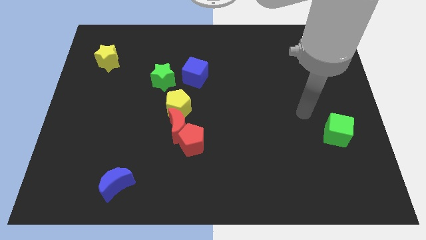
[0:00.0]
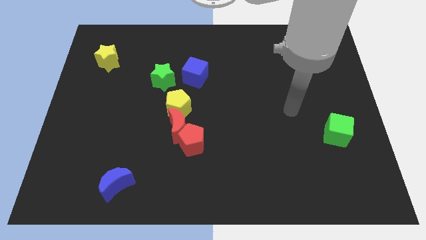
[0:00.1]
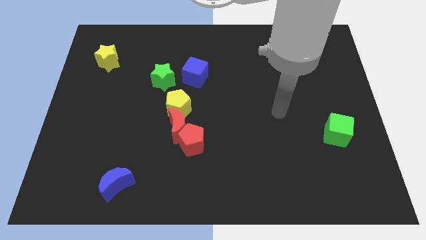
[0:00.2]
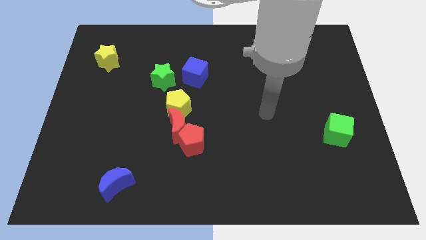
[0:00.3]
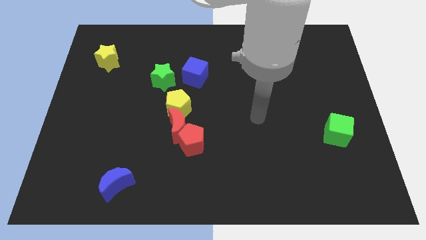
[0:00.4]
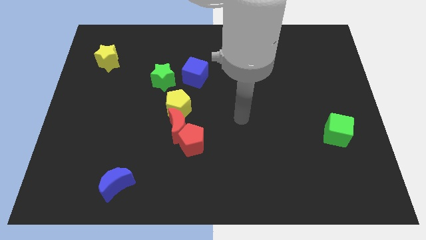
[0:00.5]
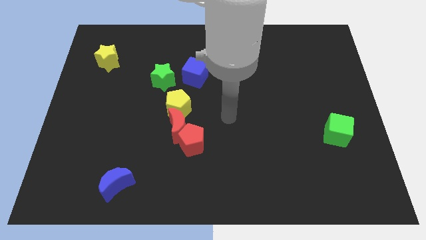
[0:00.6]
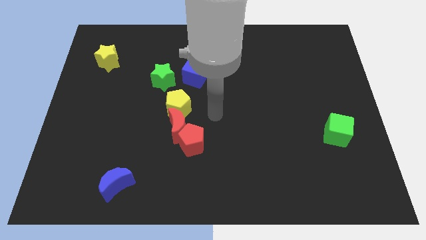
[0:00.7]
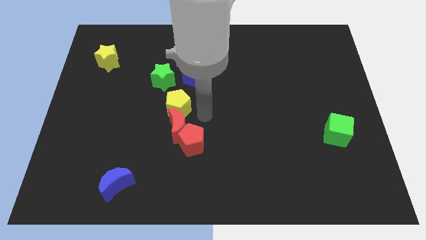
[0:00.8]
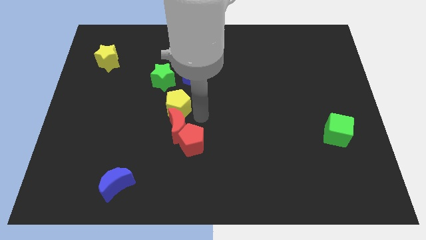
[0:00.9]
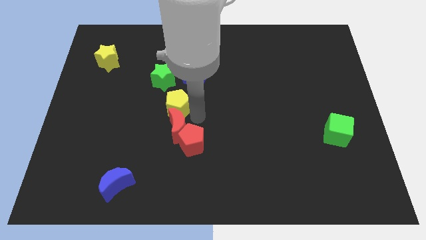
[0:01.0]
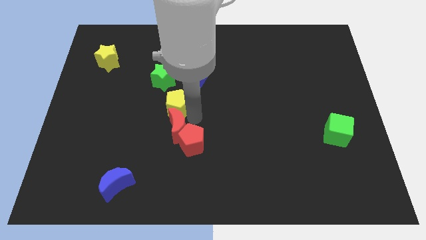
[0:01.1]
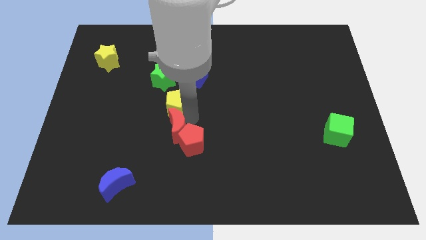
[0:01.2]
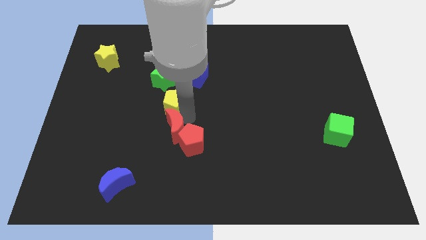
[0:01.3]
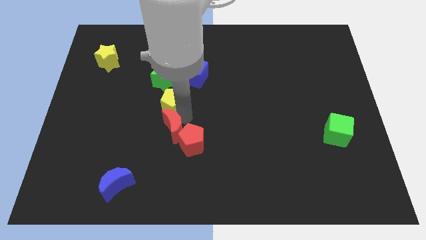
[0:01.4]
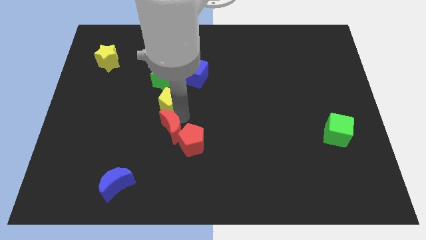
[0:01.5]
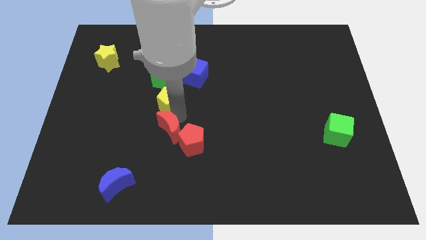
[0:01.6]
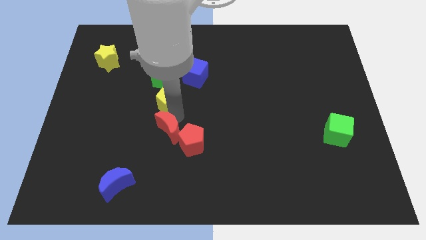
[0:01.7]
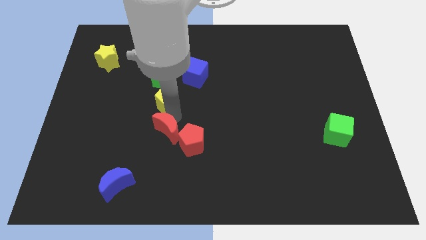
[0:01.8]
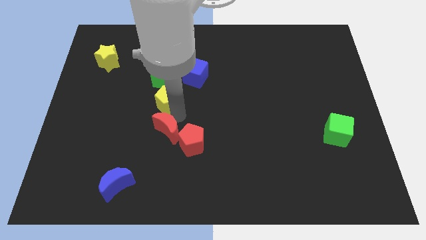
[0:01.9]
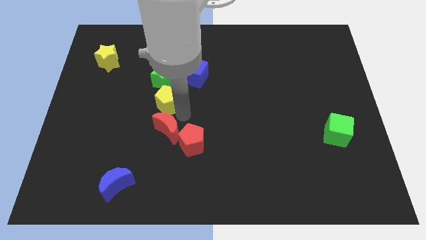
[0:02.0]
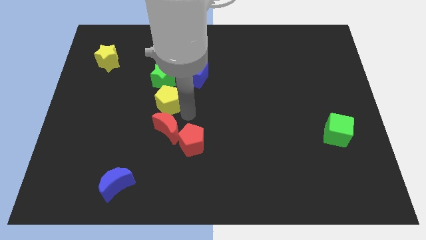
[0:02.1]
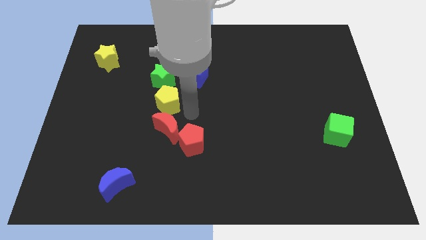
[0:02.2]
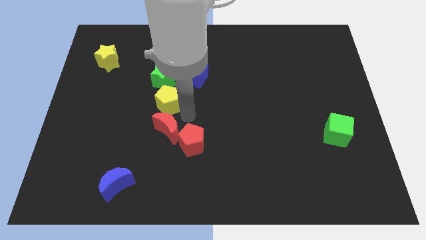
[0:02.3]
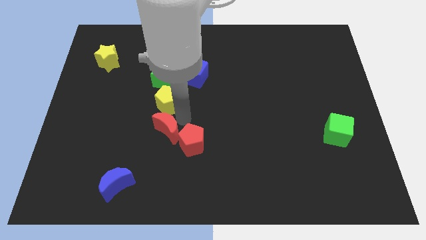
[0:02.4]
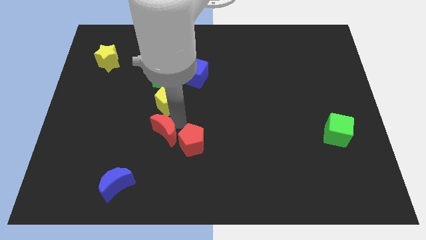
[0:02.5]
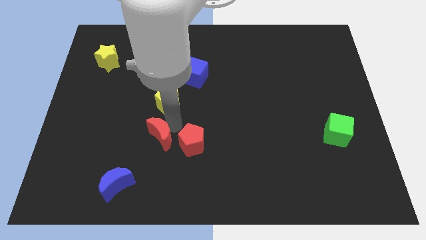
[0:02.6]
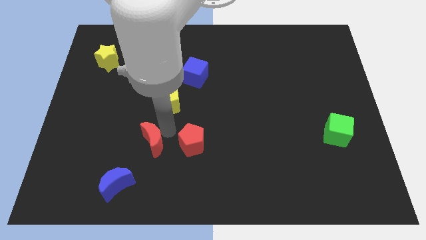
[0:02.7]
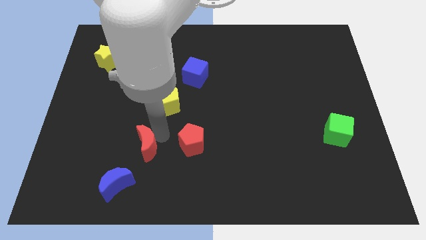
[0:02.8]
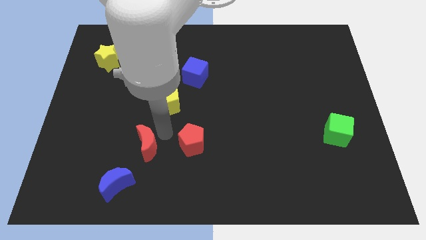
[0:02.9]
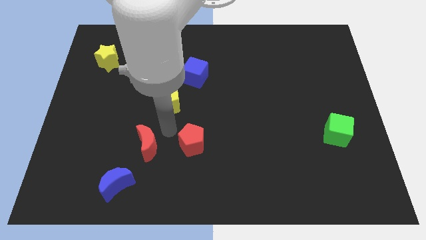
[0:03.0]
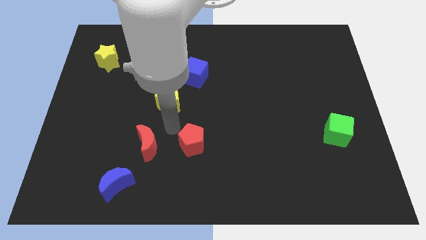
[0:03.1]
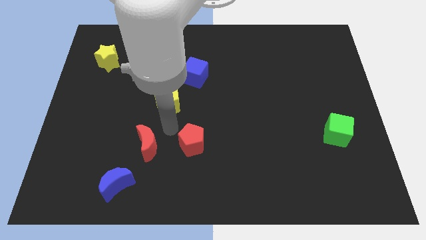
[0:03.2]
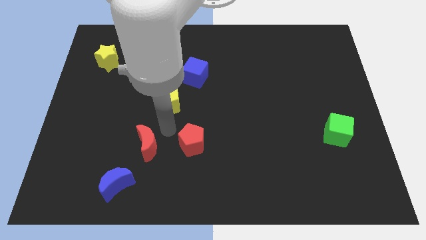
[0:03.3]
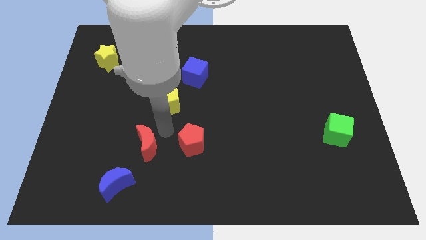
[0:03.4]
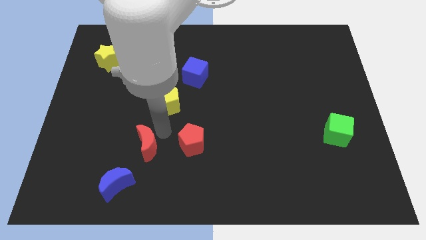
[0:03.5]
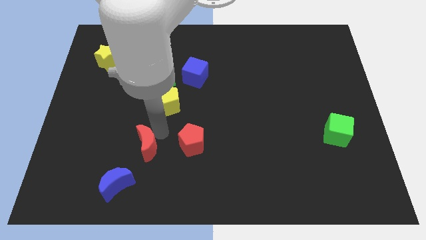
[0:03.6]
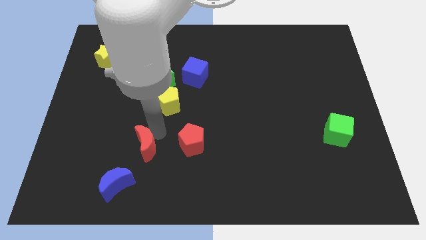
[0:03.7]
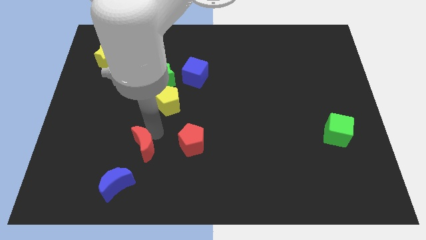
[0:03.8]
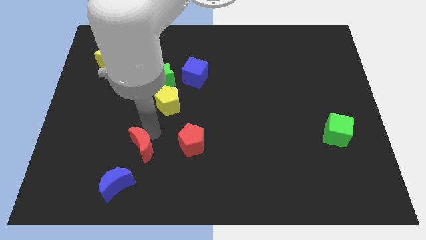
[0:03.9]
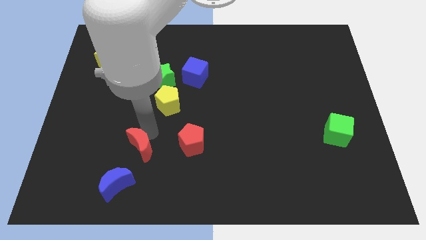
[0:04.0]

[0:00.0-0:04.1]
separate the red moon from the red pentagon and yellow pentagon

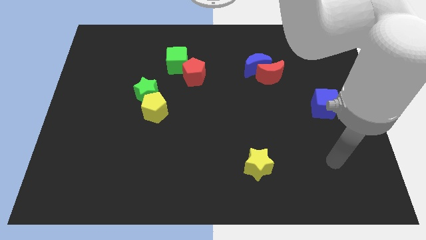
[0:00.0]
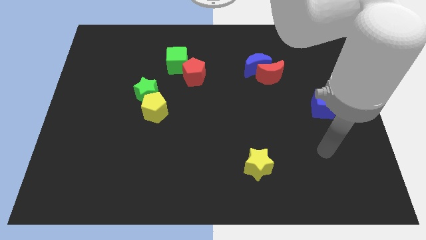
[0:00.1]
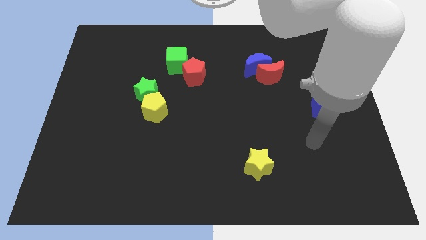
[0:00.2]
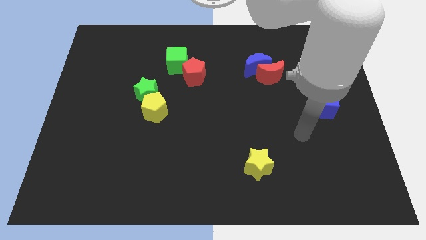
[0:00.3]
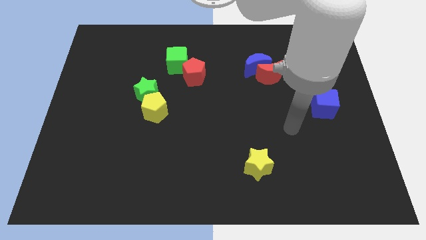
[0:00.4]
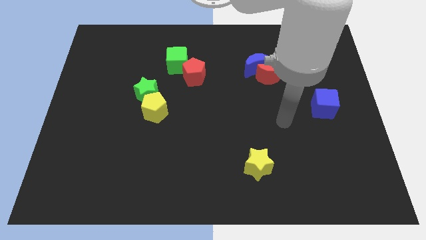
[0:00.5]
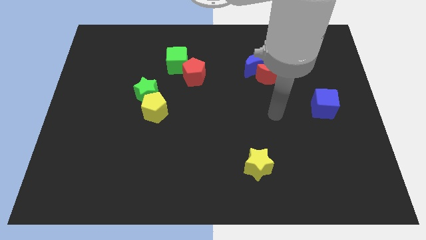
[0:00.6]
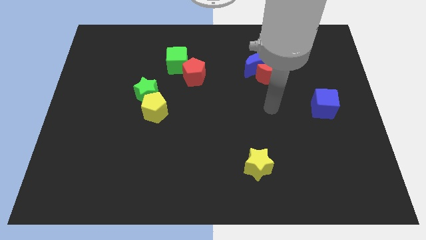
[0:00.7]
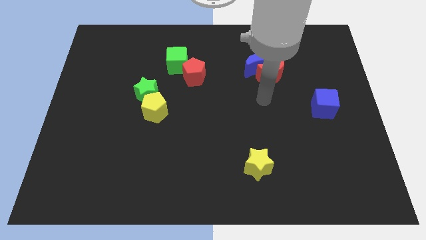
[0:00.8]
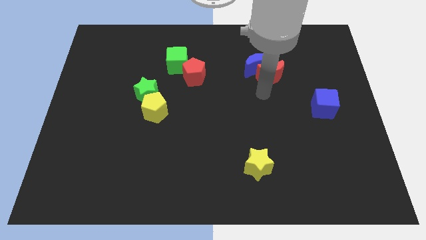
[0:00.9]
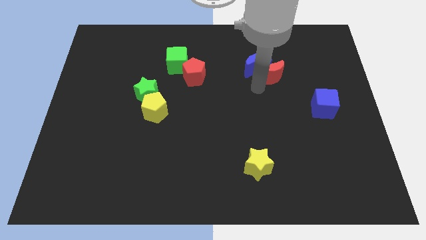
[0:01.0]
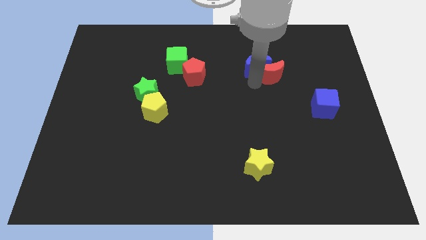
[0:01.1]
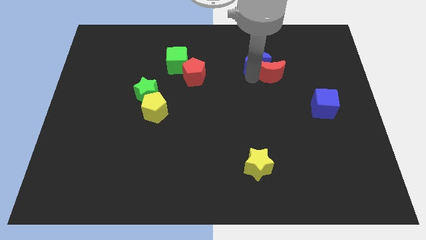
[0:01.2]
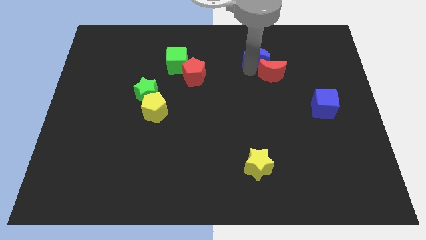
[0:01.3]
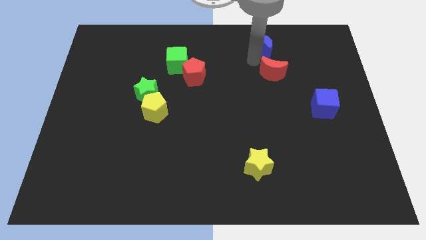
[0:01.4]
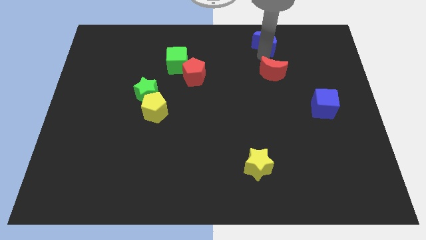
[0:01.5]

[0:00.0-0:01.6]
pull the red moon apart from the blue moon

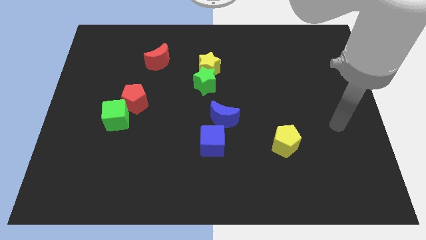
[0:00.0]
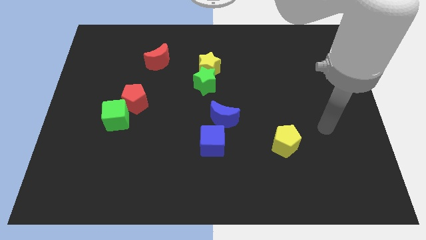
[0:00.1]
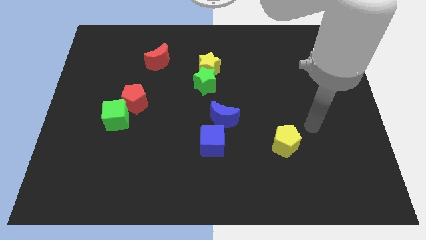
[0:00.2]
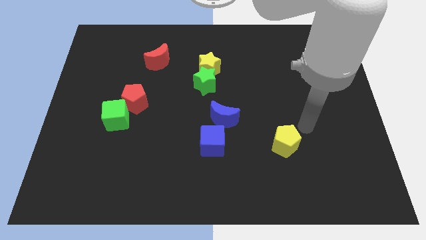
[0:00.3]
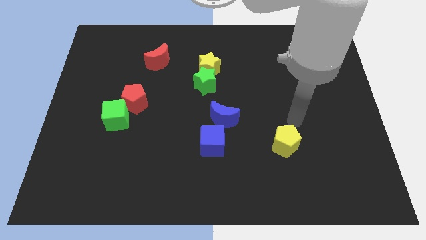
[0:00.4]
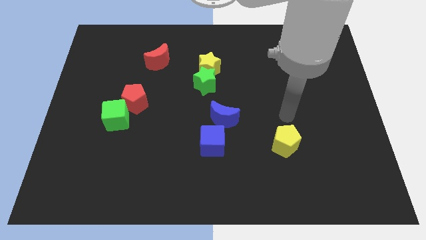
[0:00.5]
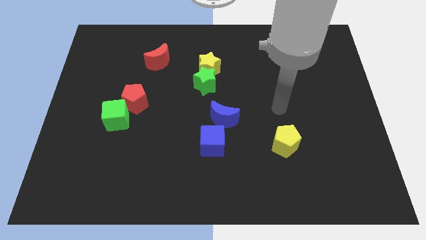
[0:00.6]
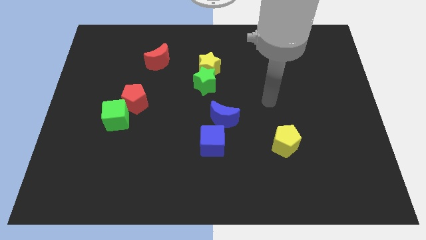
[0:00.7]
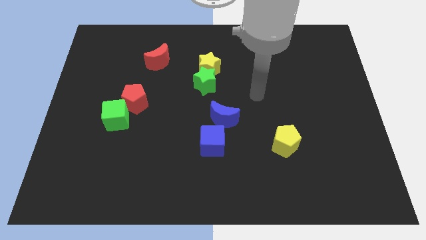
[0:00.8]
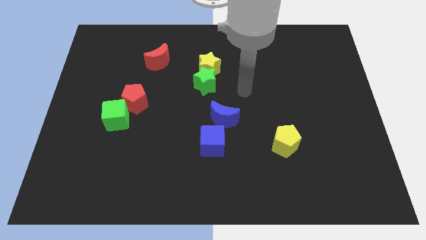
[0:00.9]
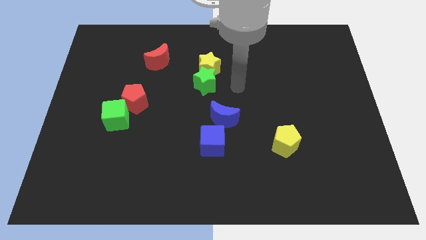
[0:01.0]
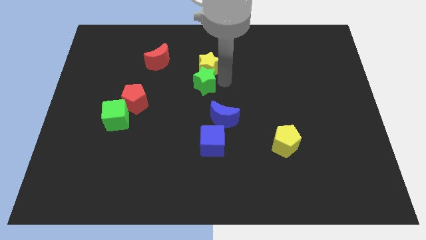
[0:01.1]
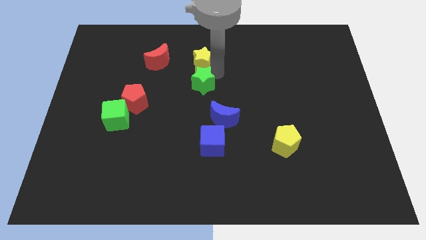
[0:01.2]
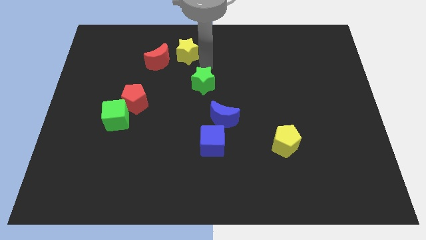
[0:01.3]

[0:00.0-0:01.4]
move the green star away from the yellow star

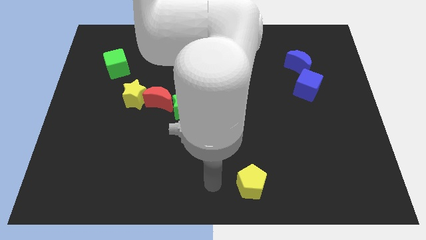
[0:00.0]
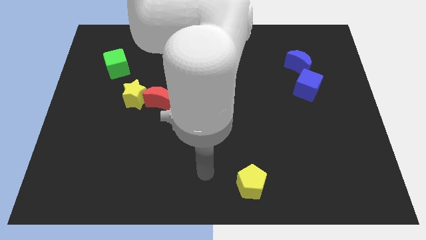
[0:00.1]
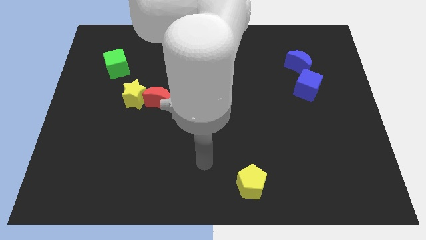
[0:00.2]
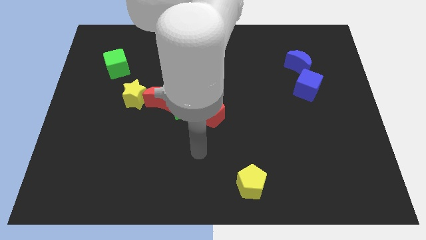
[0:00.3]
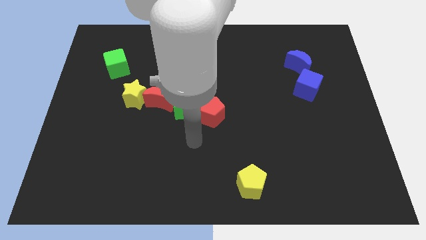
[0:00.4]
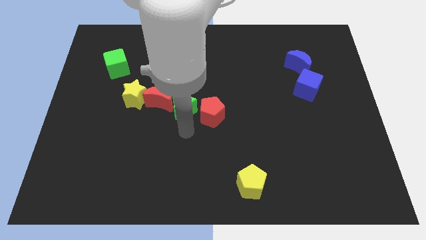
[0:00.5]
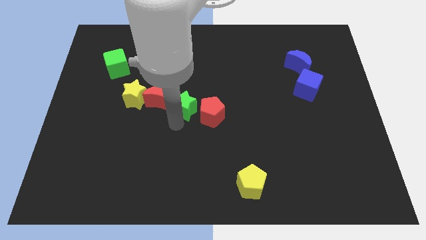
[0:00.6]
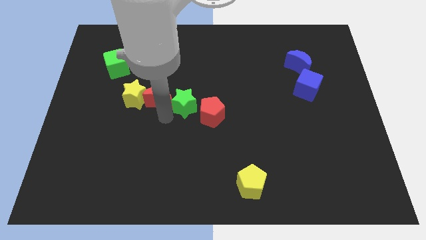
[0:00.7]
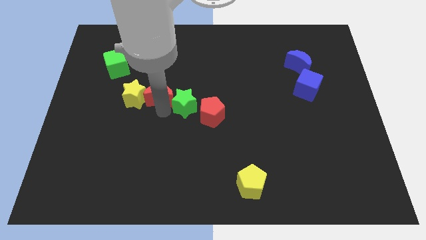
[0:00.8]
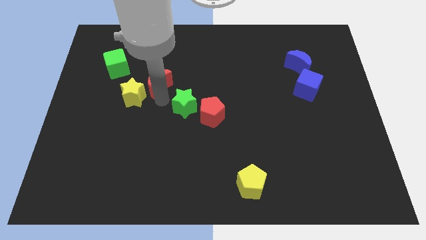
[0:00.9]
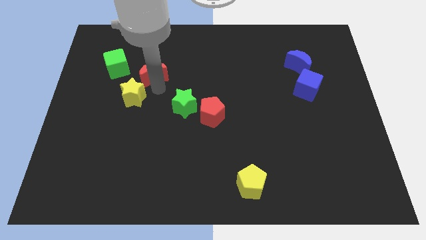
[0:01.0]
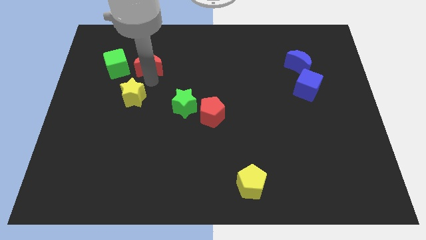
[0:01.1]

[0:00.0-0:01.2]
move the yellow star away from the red moon

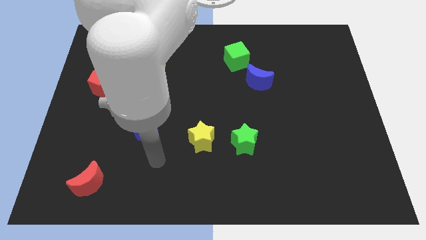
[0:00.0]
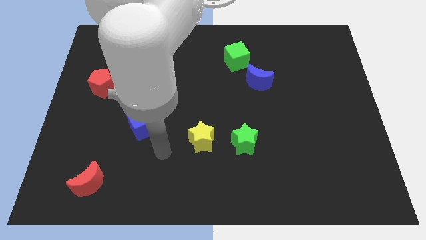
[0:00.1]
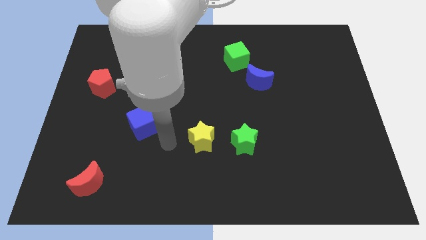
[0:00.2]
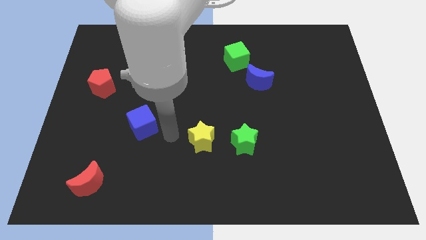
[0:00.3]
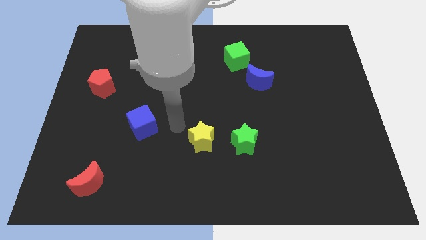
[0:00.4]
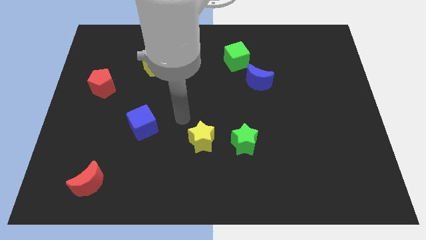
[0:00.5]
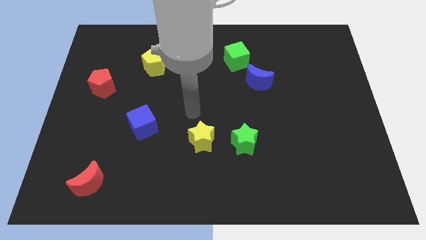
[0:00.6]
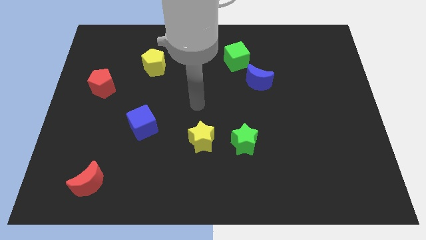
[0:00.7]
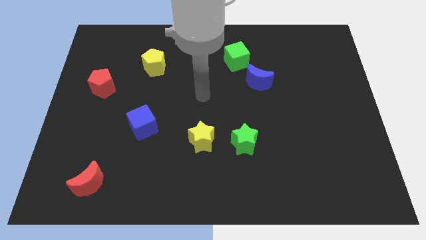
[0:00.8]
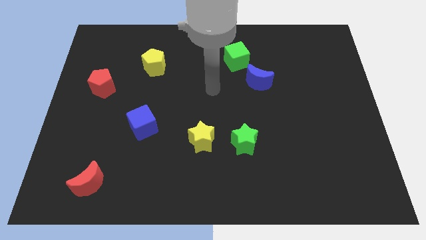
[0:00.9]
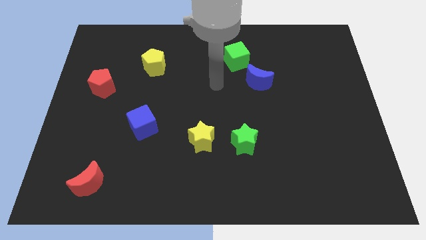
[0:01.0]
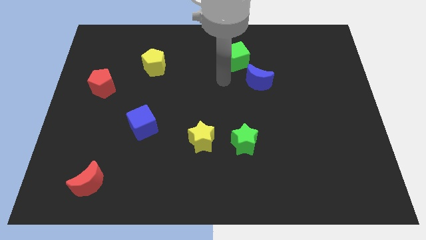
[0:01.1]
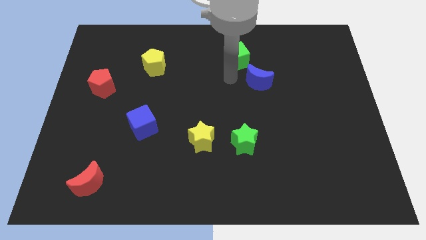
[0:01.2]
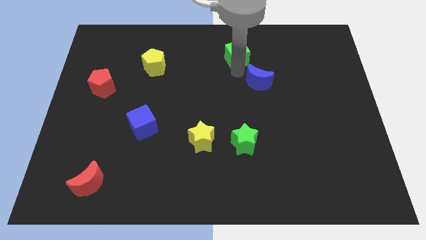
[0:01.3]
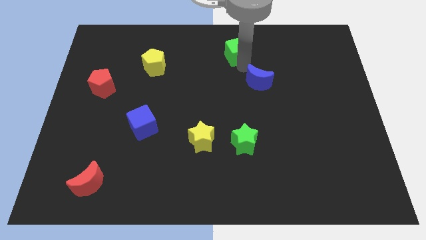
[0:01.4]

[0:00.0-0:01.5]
pull the blue moon apart from the green cube
